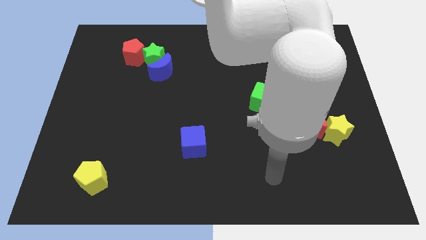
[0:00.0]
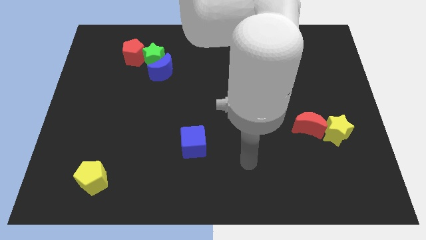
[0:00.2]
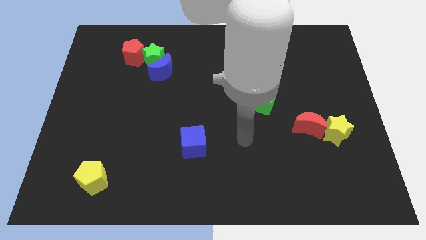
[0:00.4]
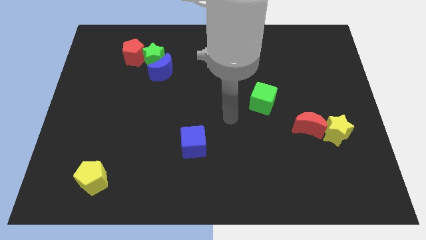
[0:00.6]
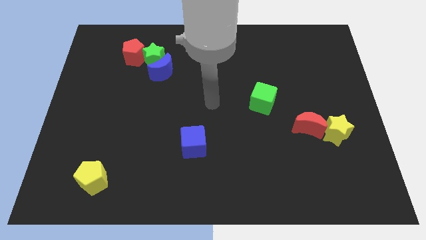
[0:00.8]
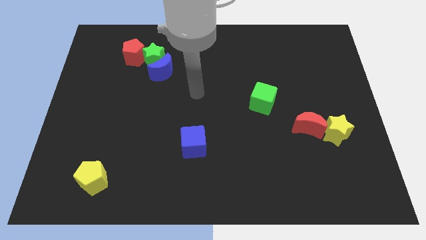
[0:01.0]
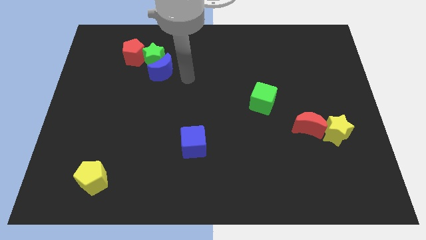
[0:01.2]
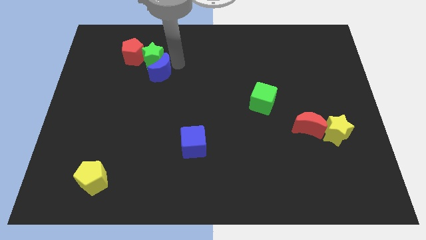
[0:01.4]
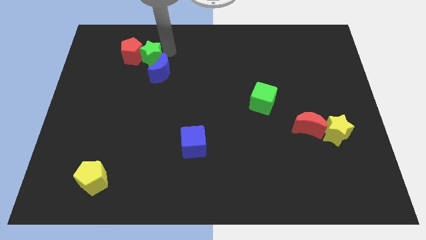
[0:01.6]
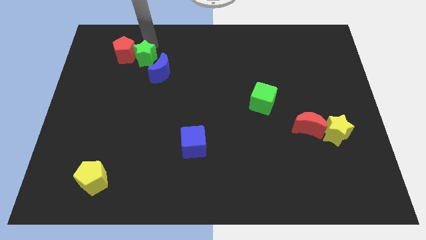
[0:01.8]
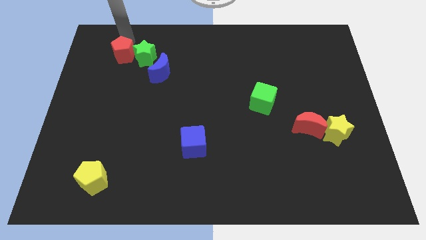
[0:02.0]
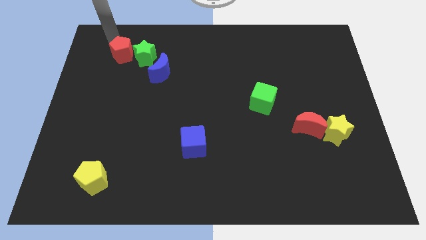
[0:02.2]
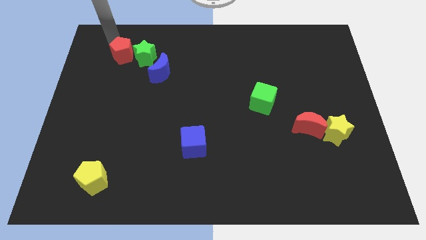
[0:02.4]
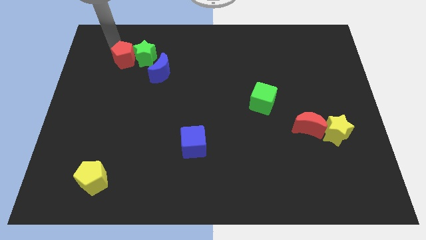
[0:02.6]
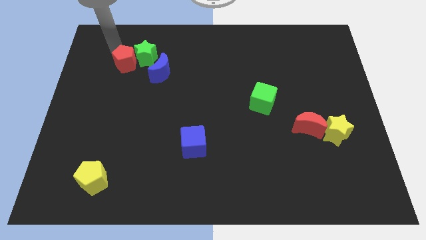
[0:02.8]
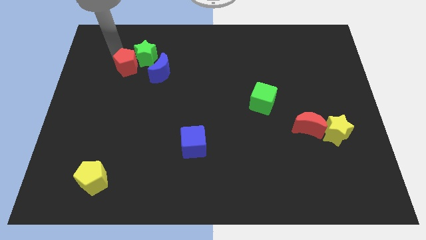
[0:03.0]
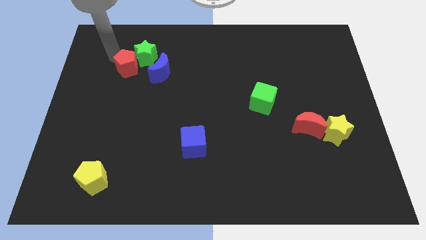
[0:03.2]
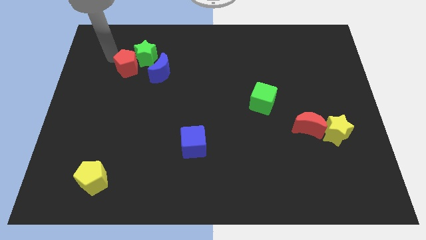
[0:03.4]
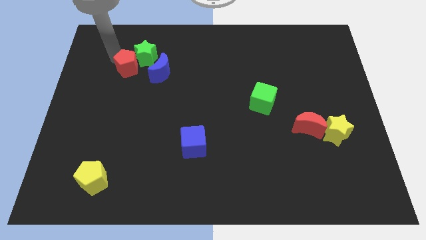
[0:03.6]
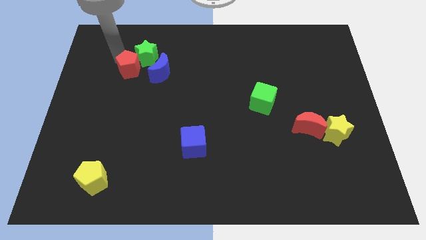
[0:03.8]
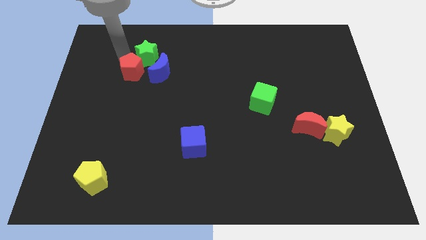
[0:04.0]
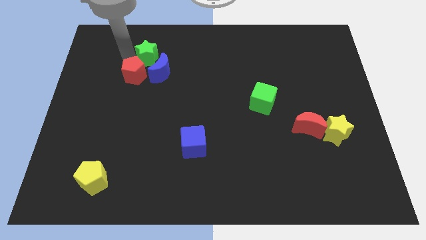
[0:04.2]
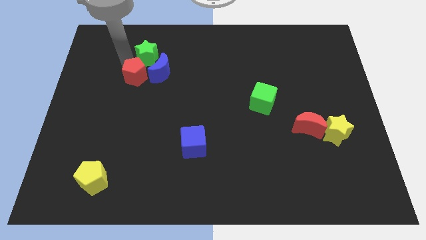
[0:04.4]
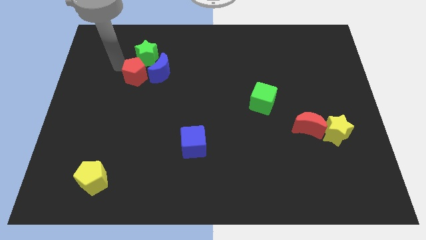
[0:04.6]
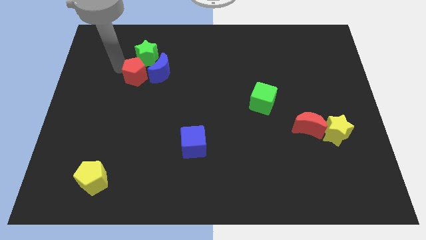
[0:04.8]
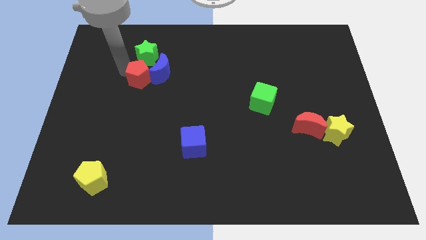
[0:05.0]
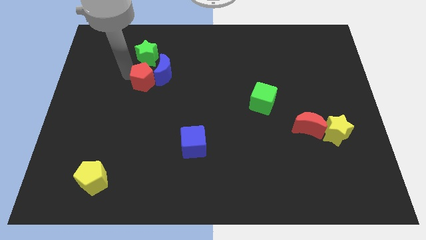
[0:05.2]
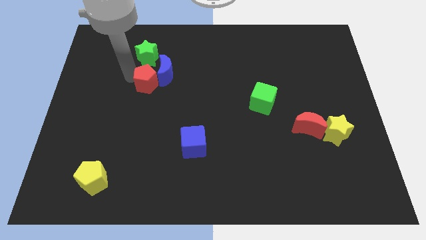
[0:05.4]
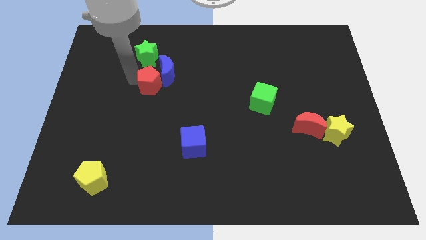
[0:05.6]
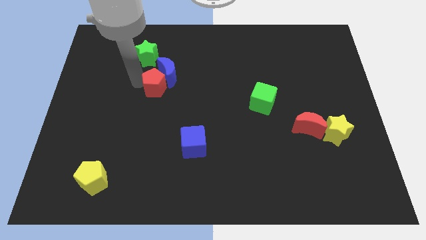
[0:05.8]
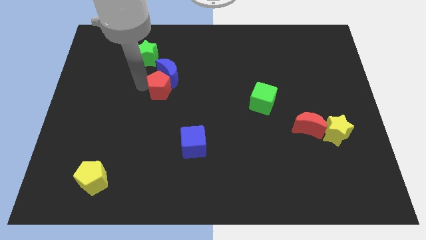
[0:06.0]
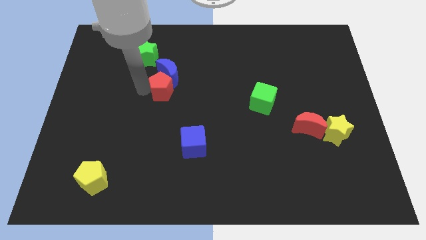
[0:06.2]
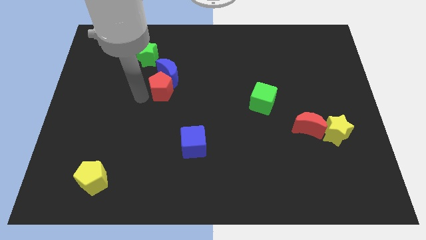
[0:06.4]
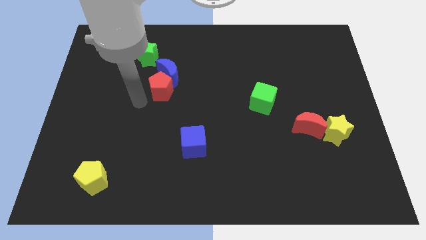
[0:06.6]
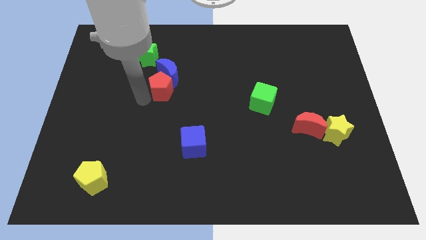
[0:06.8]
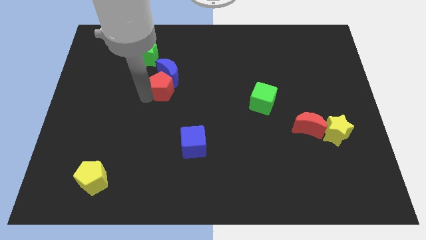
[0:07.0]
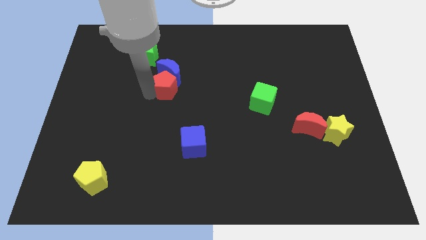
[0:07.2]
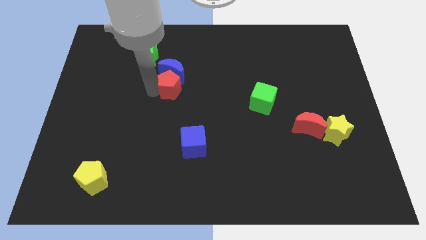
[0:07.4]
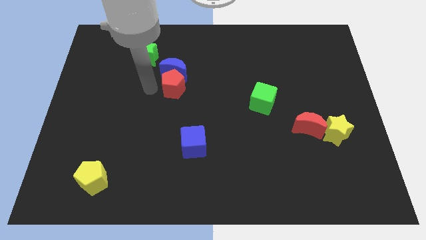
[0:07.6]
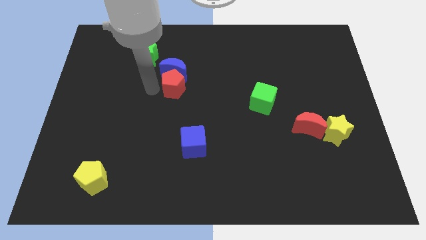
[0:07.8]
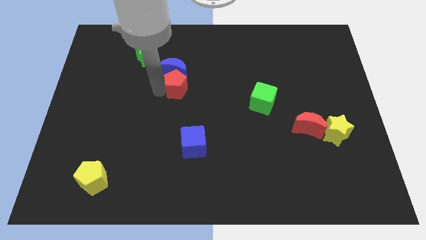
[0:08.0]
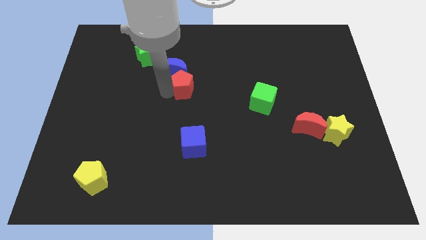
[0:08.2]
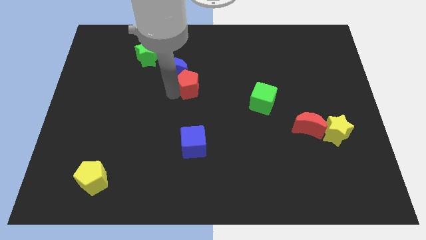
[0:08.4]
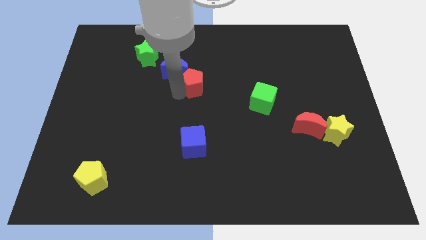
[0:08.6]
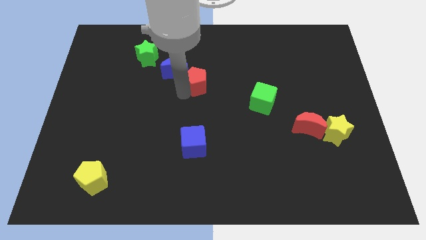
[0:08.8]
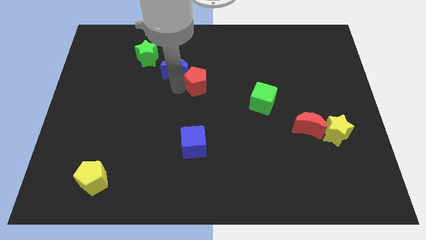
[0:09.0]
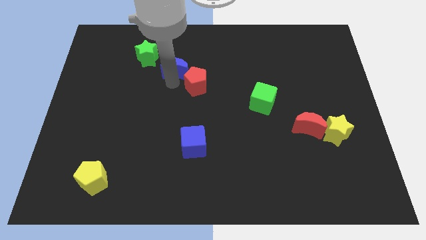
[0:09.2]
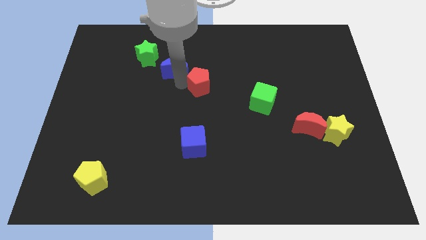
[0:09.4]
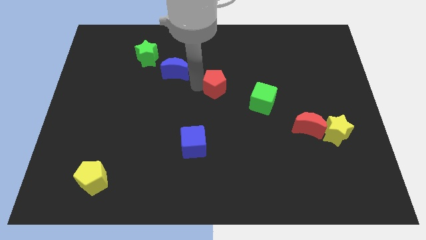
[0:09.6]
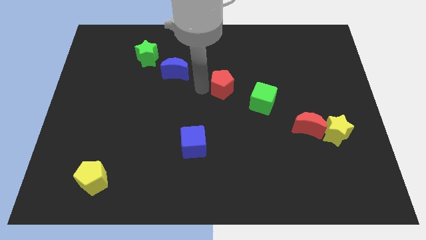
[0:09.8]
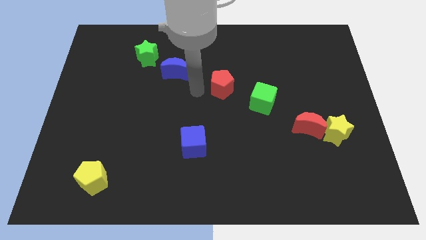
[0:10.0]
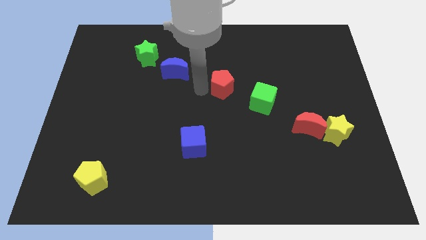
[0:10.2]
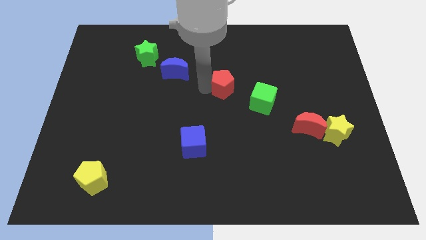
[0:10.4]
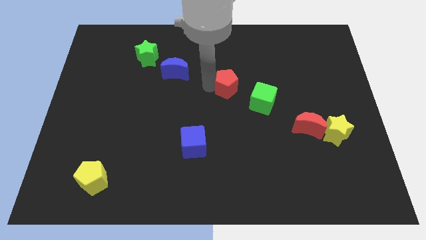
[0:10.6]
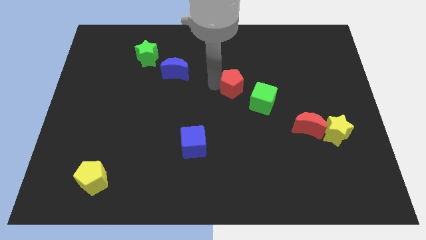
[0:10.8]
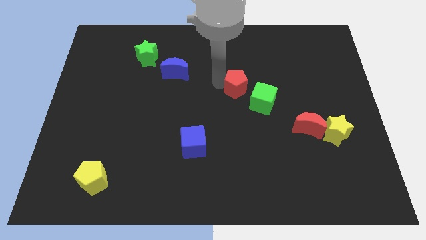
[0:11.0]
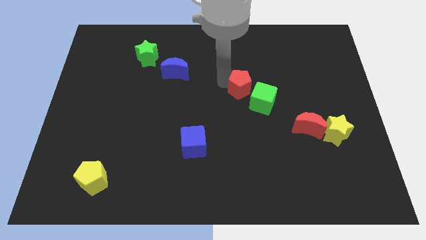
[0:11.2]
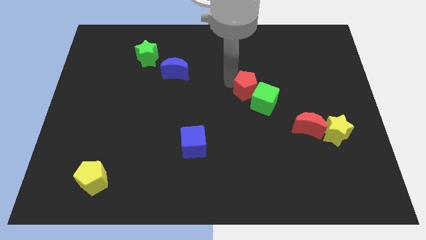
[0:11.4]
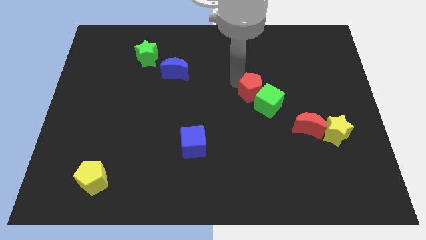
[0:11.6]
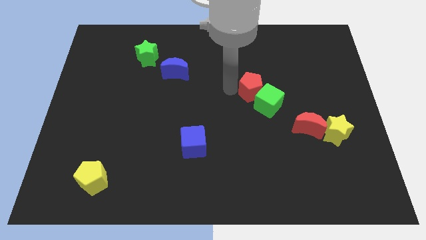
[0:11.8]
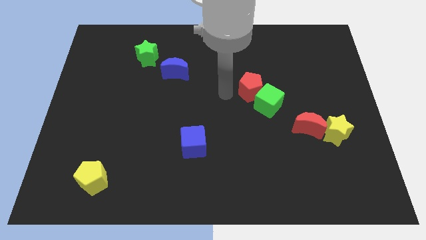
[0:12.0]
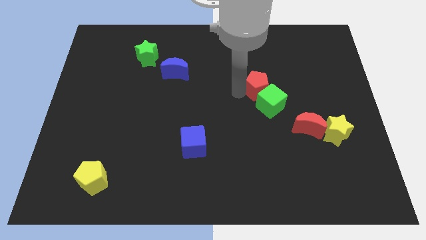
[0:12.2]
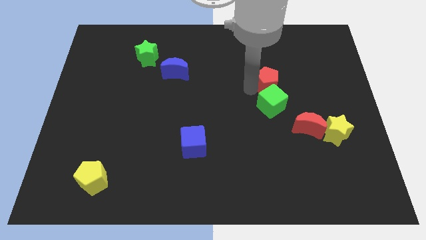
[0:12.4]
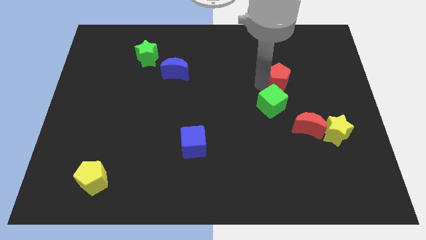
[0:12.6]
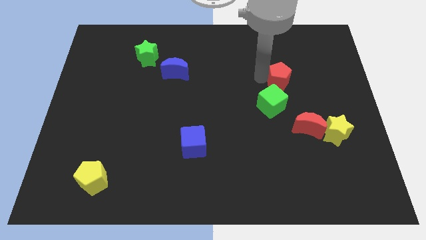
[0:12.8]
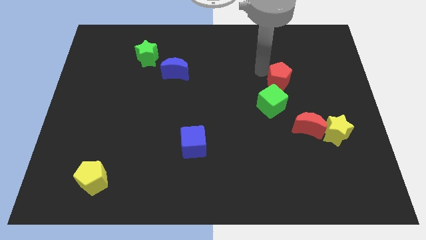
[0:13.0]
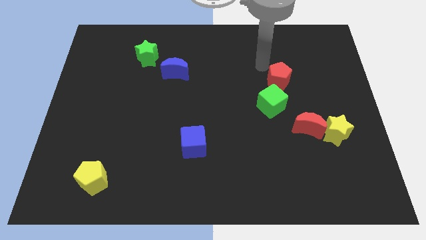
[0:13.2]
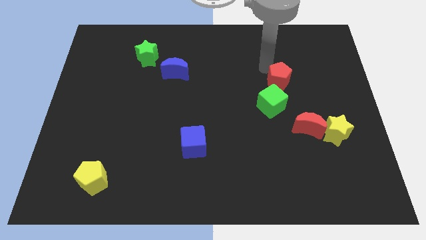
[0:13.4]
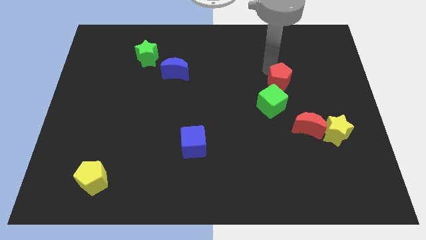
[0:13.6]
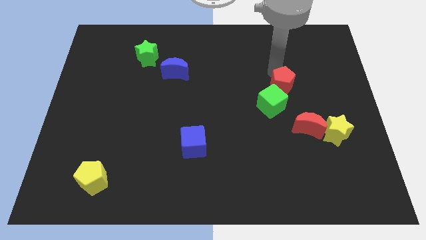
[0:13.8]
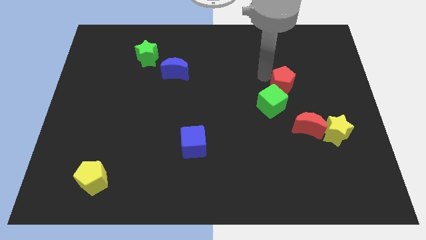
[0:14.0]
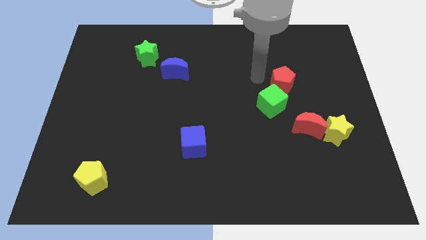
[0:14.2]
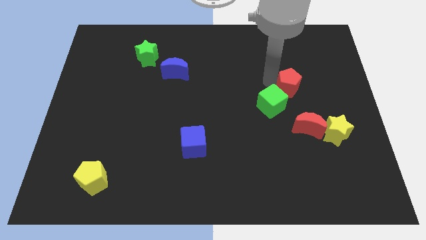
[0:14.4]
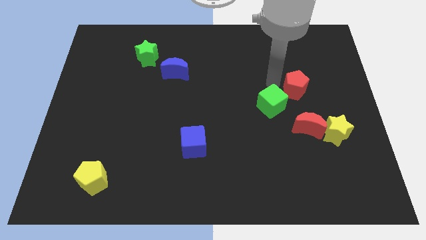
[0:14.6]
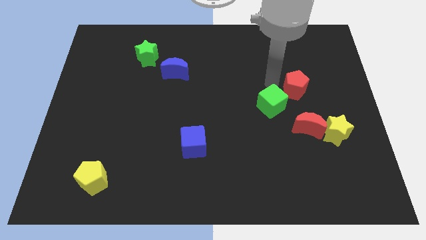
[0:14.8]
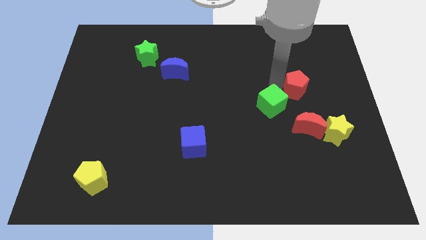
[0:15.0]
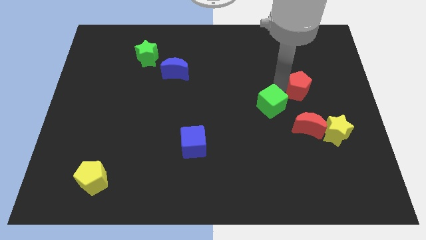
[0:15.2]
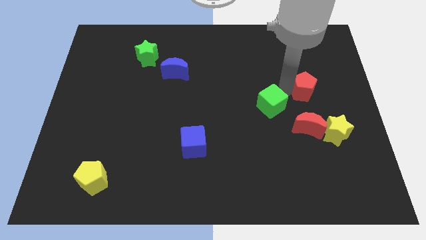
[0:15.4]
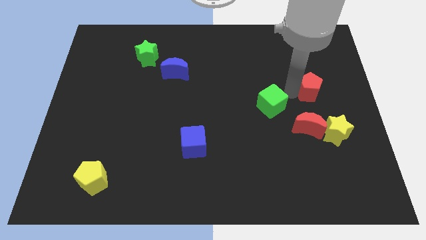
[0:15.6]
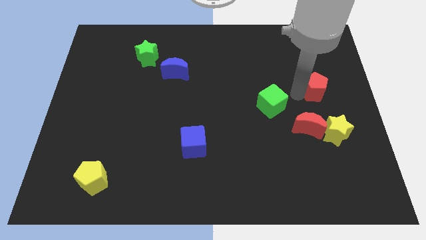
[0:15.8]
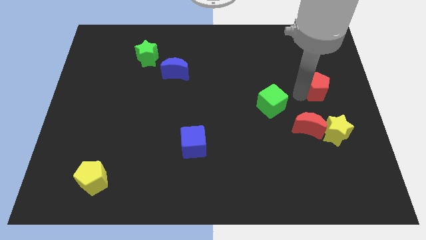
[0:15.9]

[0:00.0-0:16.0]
push the red pentagon to the right side of the board
